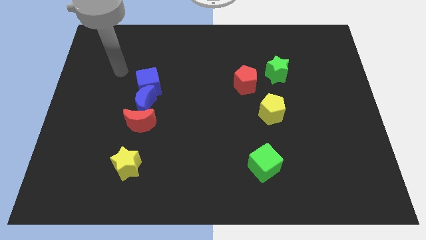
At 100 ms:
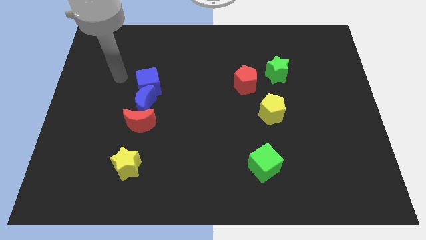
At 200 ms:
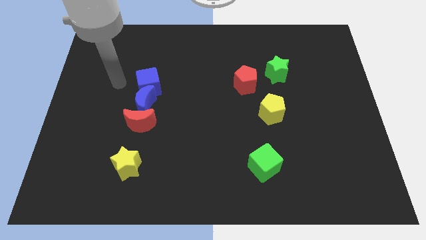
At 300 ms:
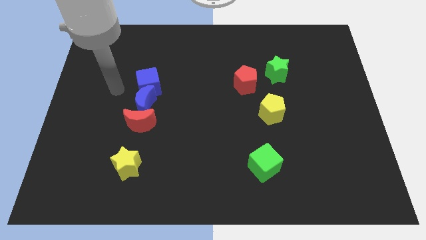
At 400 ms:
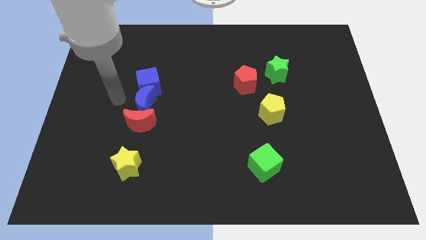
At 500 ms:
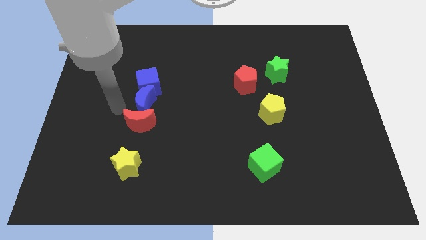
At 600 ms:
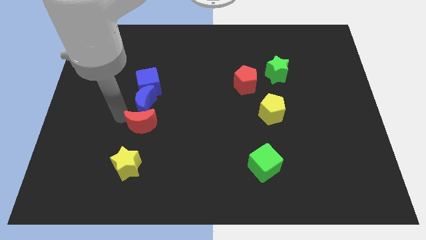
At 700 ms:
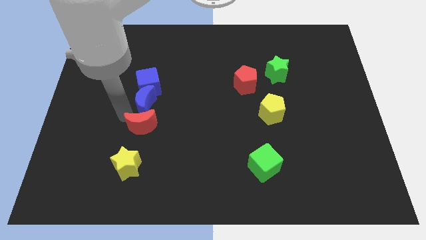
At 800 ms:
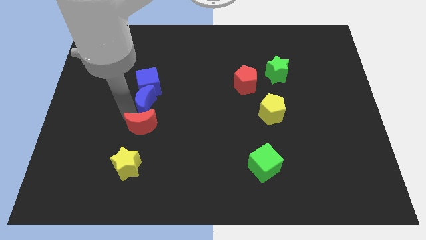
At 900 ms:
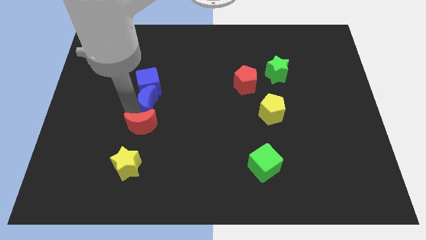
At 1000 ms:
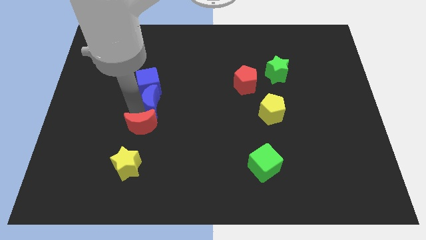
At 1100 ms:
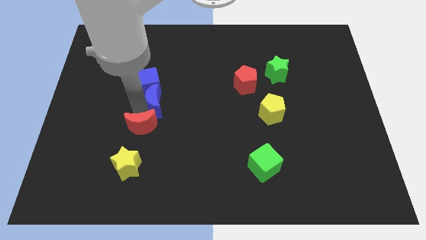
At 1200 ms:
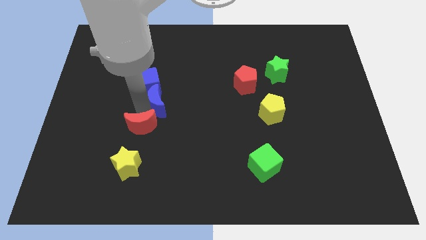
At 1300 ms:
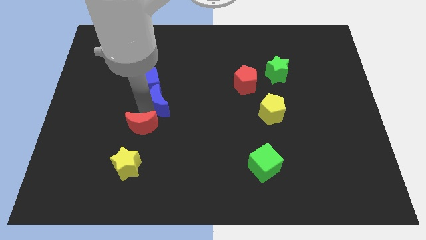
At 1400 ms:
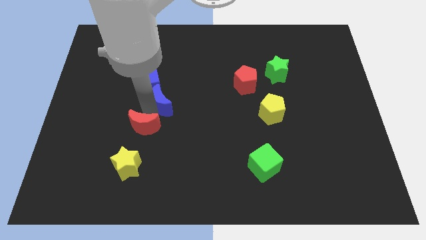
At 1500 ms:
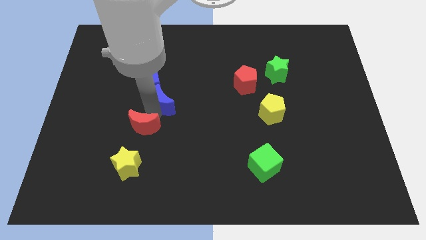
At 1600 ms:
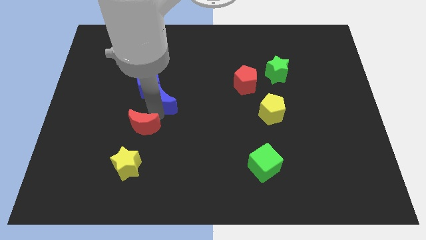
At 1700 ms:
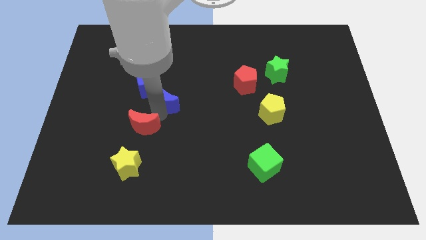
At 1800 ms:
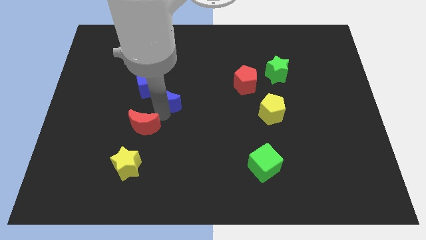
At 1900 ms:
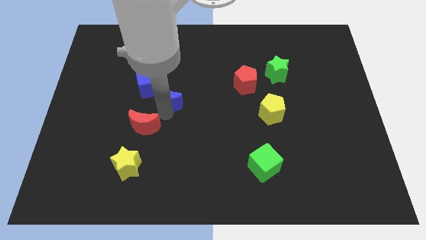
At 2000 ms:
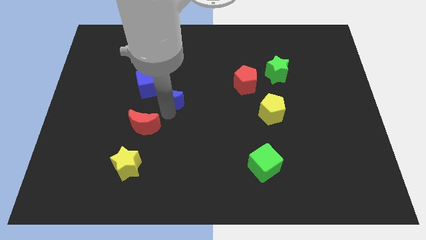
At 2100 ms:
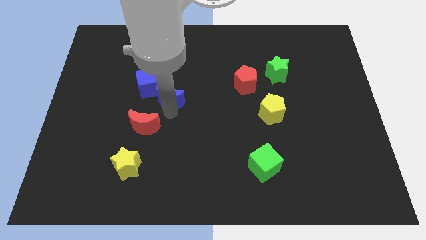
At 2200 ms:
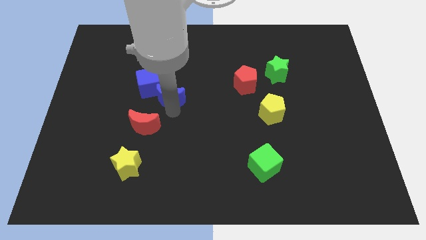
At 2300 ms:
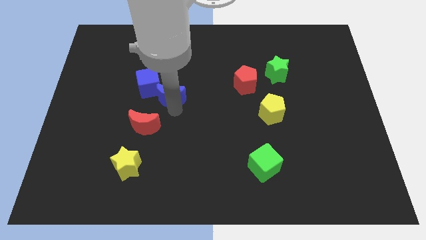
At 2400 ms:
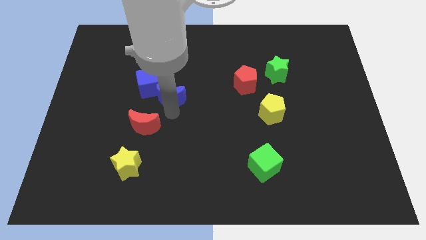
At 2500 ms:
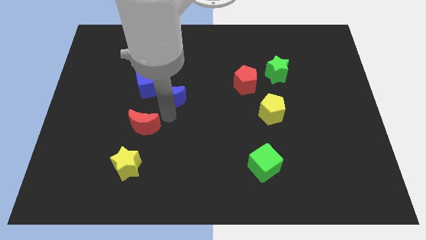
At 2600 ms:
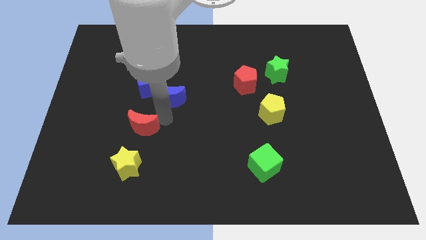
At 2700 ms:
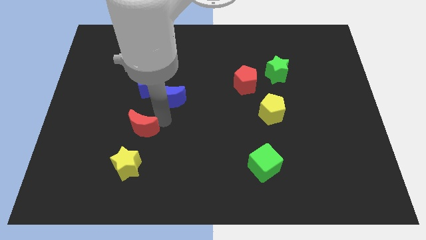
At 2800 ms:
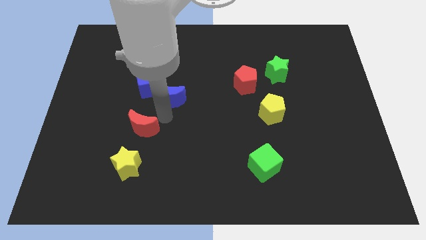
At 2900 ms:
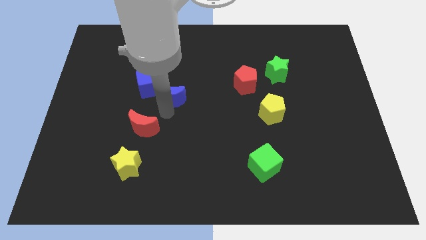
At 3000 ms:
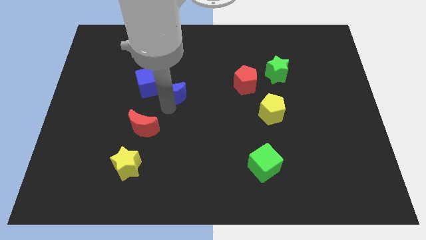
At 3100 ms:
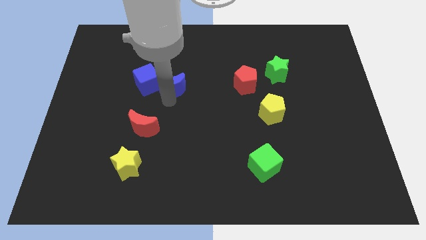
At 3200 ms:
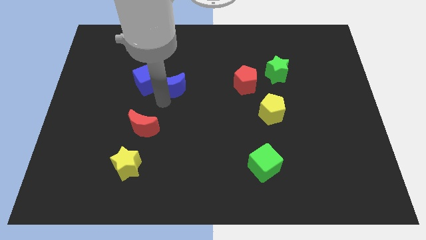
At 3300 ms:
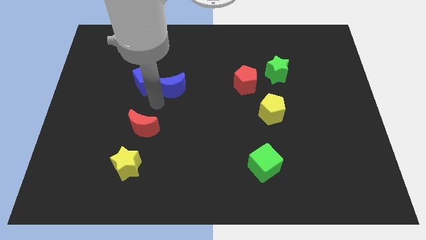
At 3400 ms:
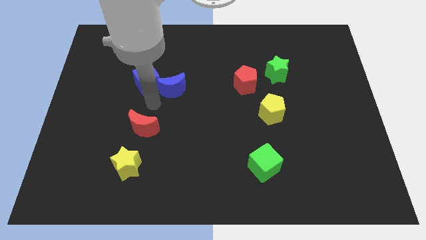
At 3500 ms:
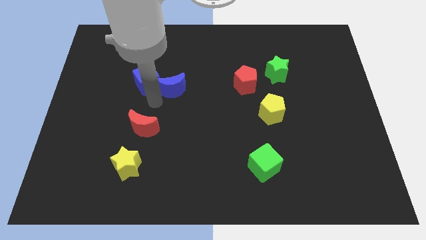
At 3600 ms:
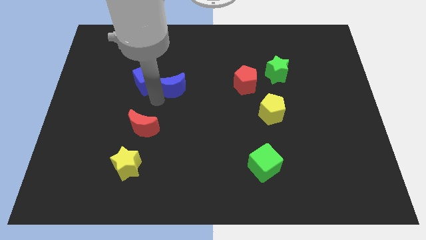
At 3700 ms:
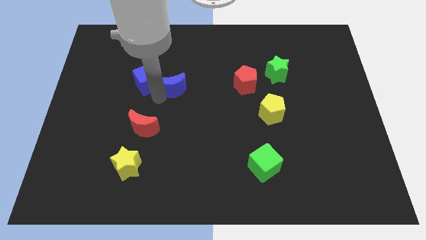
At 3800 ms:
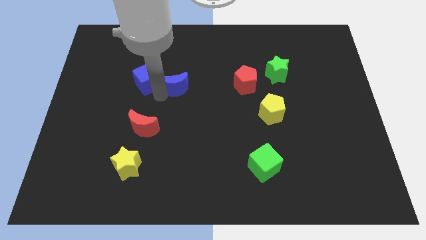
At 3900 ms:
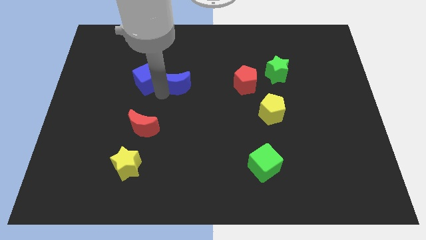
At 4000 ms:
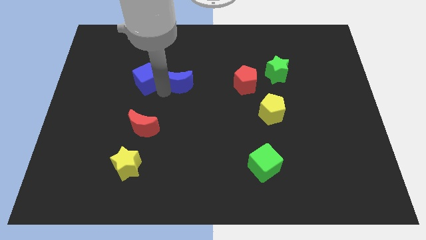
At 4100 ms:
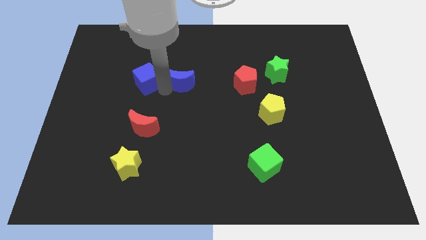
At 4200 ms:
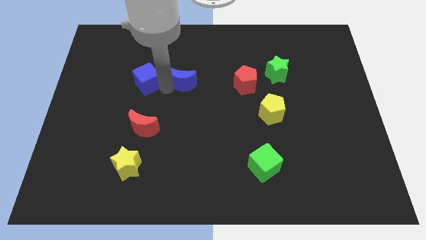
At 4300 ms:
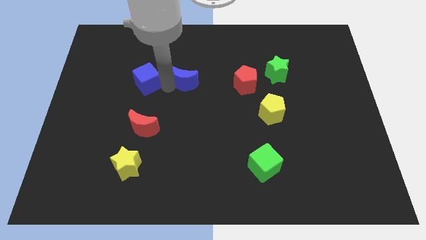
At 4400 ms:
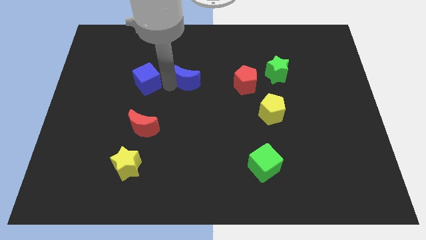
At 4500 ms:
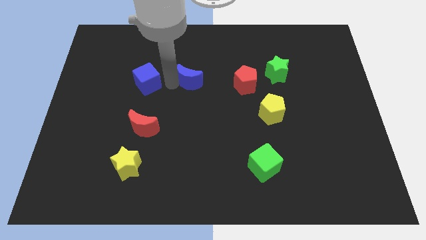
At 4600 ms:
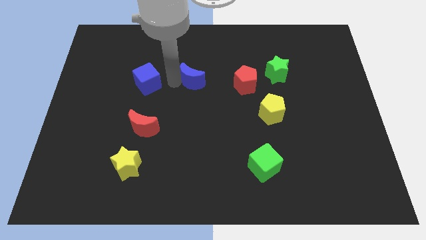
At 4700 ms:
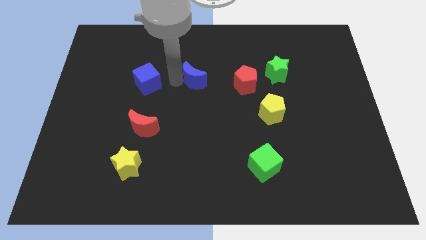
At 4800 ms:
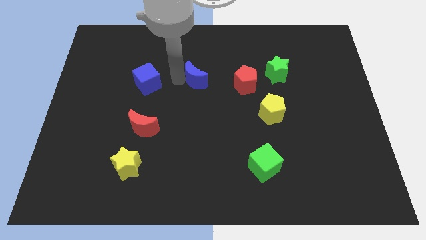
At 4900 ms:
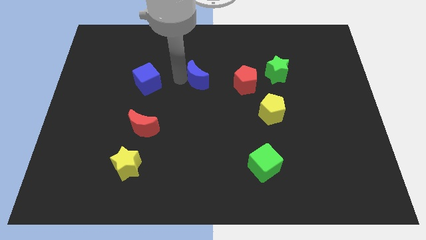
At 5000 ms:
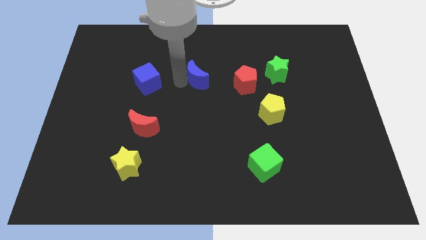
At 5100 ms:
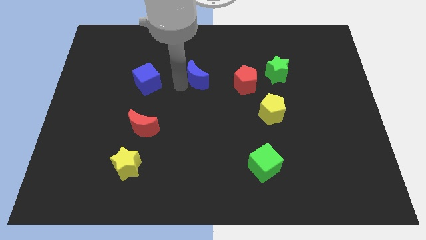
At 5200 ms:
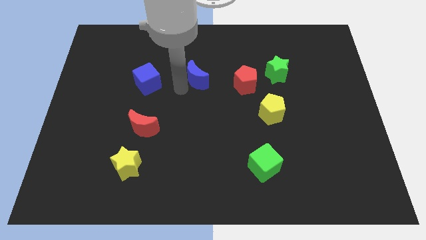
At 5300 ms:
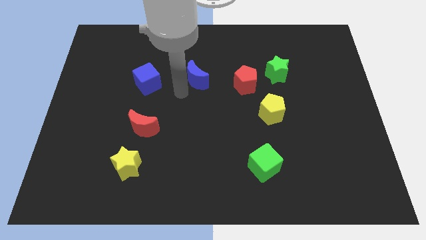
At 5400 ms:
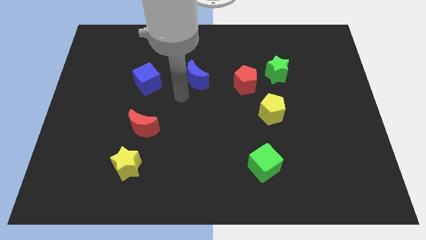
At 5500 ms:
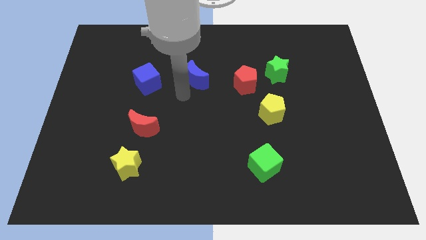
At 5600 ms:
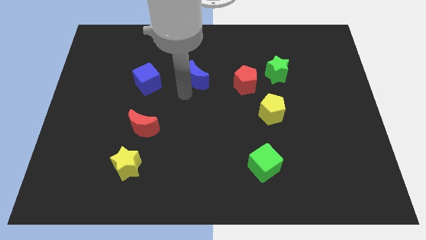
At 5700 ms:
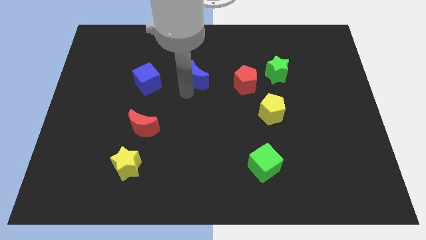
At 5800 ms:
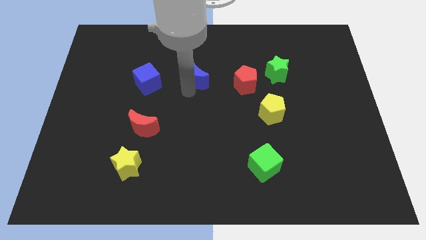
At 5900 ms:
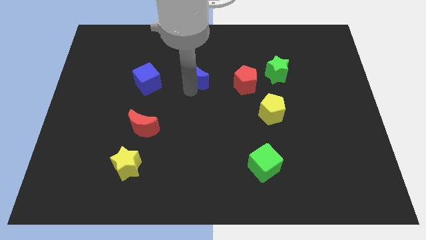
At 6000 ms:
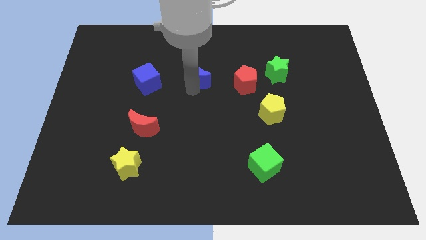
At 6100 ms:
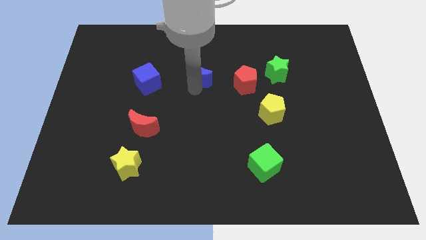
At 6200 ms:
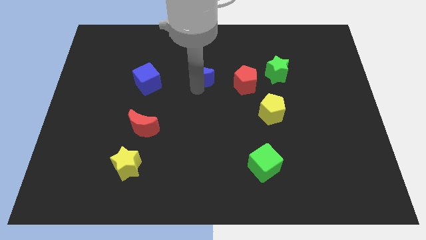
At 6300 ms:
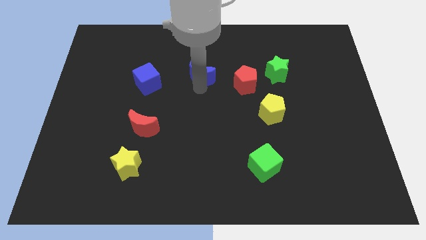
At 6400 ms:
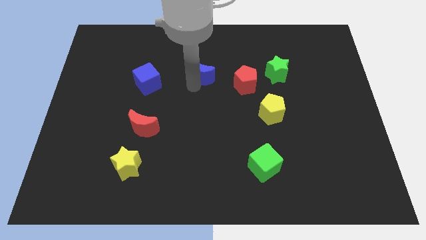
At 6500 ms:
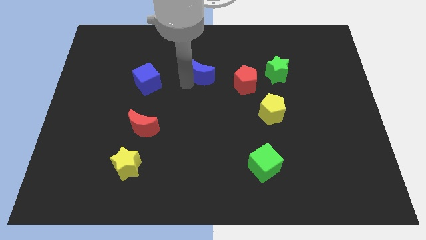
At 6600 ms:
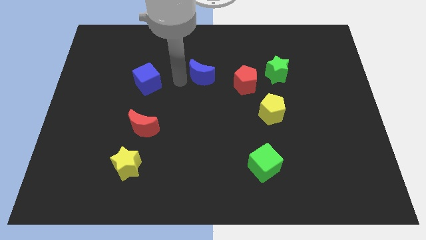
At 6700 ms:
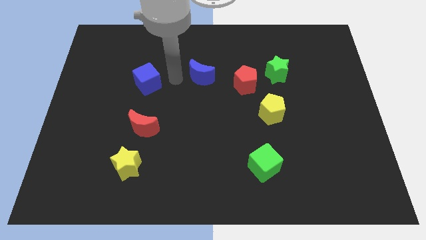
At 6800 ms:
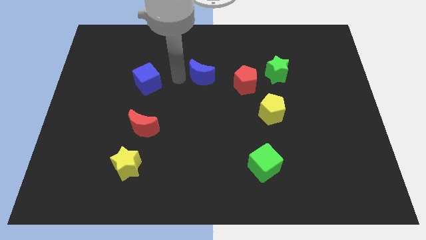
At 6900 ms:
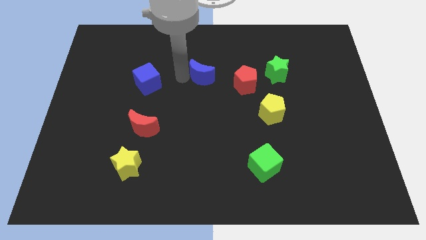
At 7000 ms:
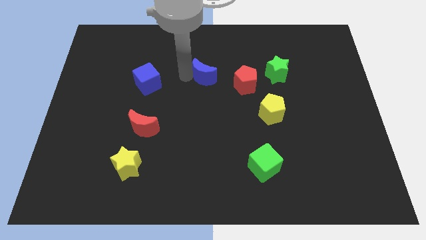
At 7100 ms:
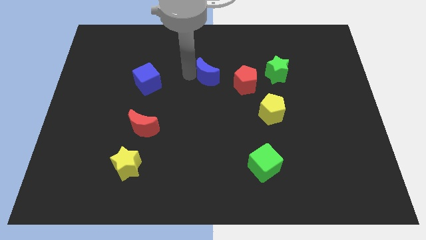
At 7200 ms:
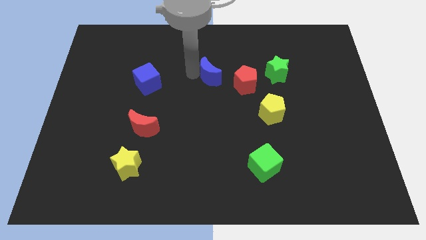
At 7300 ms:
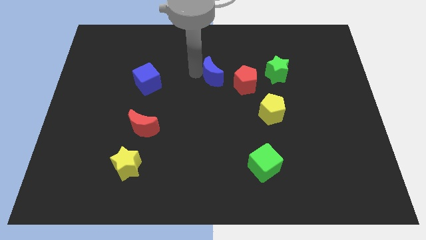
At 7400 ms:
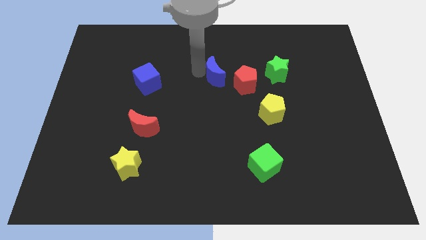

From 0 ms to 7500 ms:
move the blue moon left of the green star
